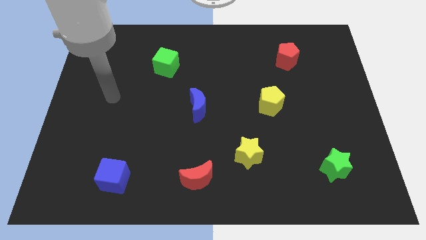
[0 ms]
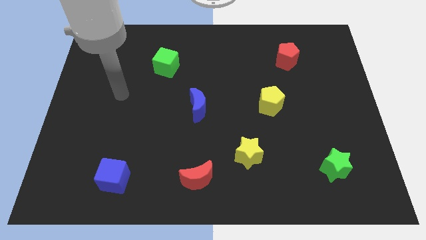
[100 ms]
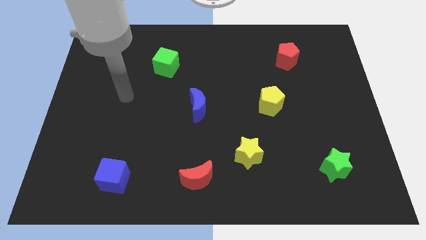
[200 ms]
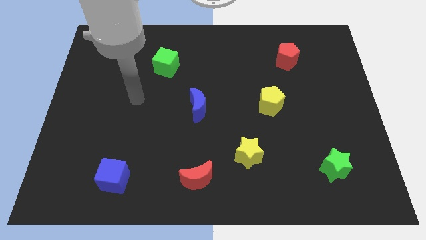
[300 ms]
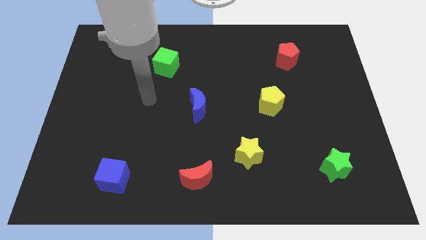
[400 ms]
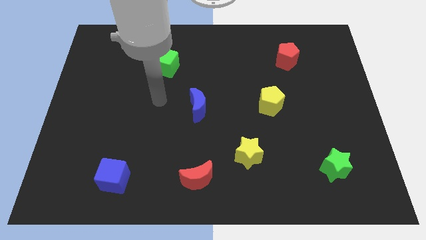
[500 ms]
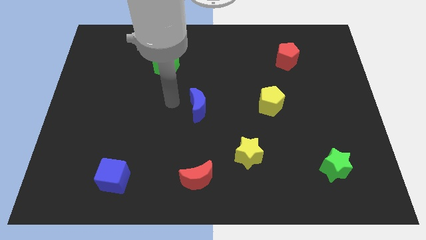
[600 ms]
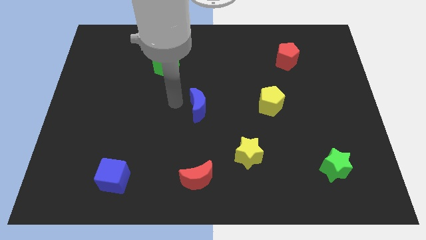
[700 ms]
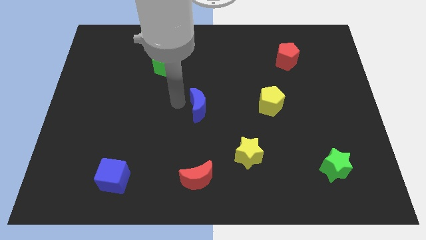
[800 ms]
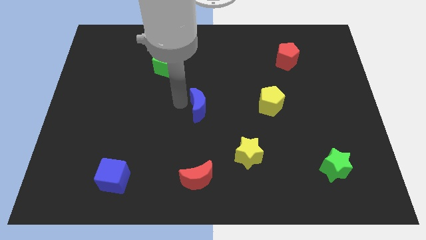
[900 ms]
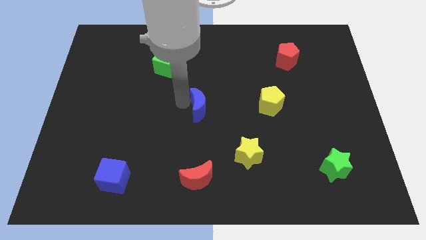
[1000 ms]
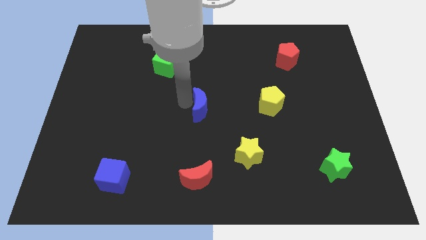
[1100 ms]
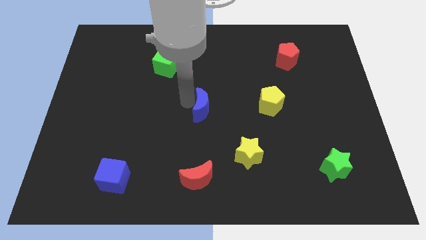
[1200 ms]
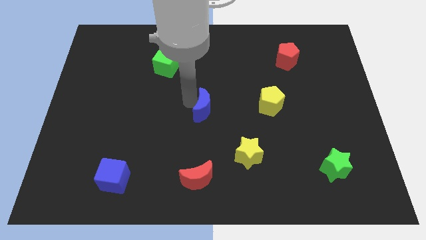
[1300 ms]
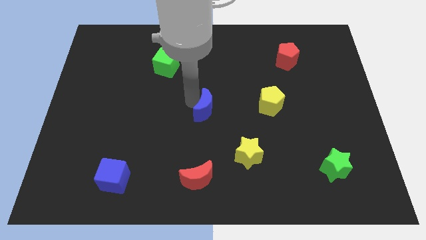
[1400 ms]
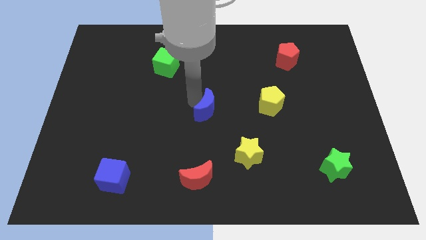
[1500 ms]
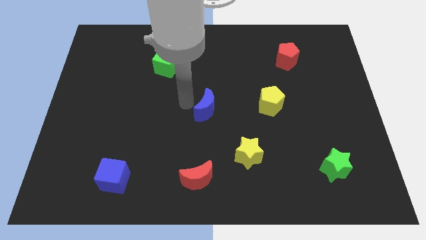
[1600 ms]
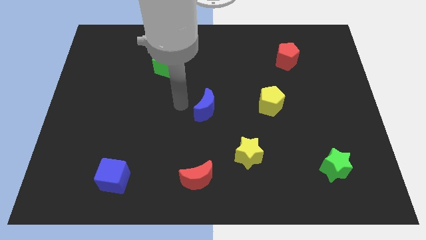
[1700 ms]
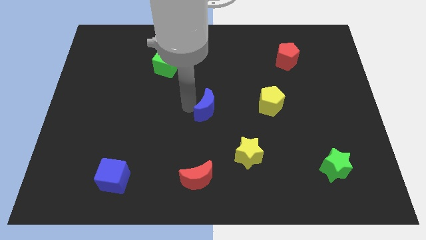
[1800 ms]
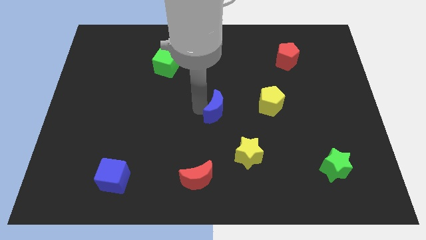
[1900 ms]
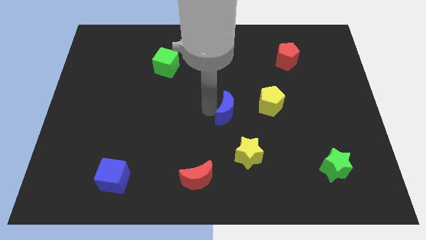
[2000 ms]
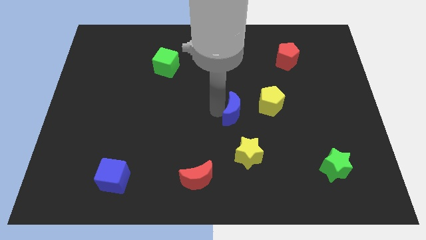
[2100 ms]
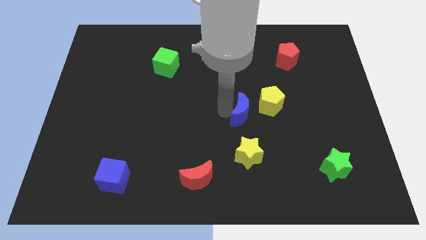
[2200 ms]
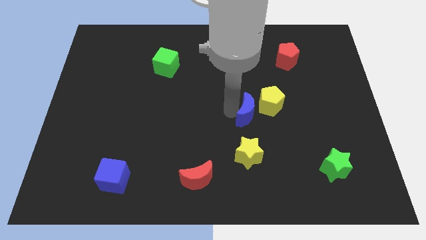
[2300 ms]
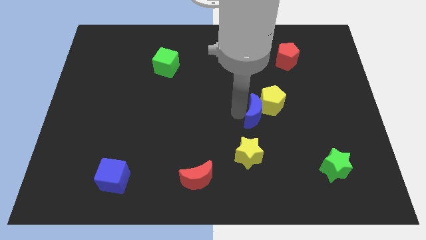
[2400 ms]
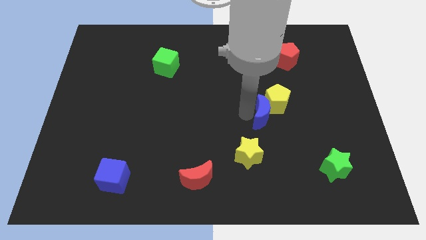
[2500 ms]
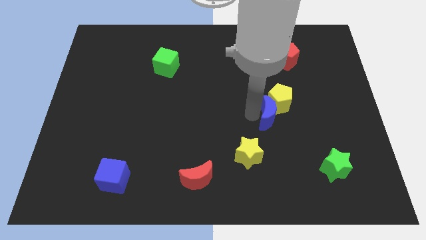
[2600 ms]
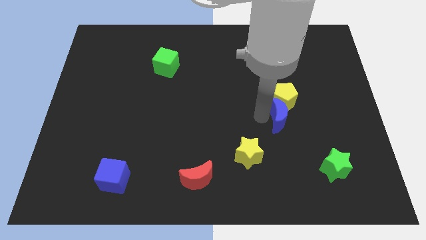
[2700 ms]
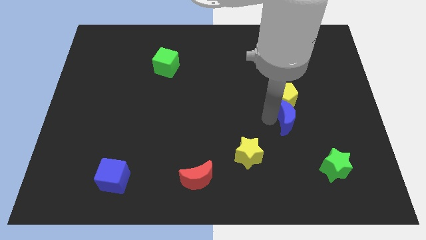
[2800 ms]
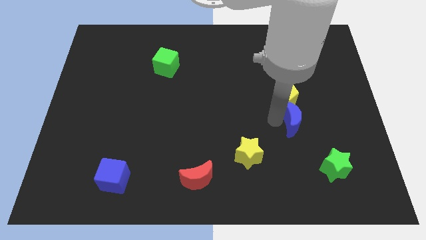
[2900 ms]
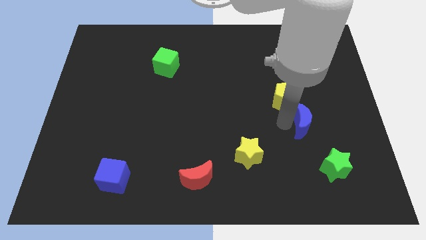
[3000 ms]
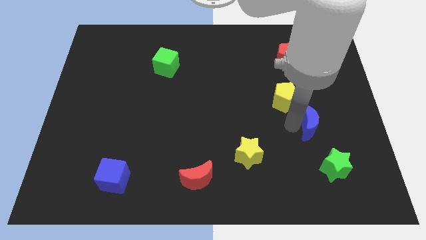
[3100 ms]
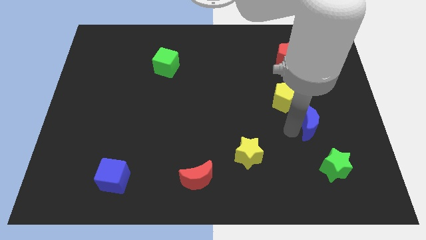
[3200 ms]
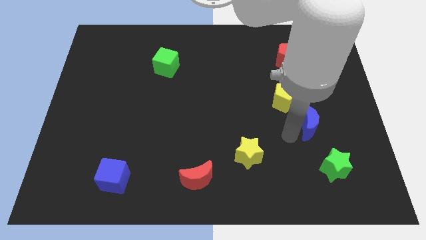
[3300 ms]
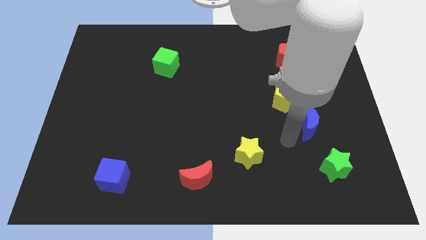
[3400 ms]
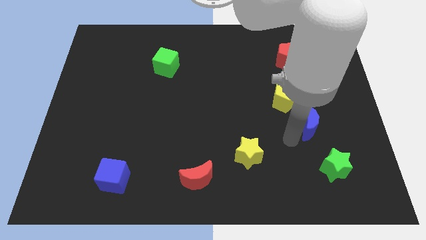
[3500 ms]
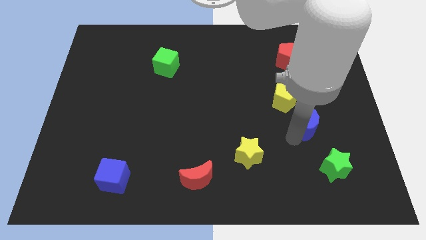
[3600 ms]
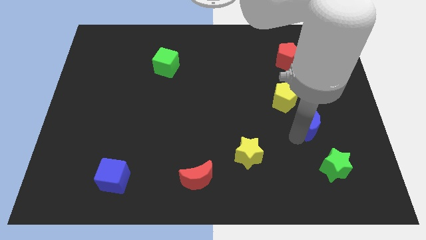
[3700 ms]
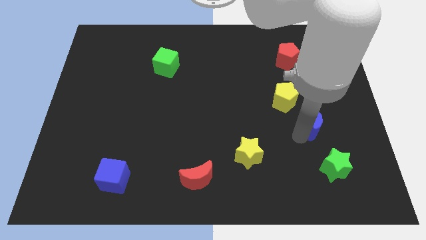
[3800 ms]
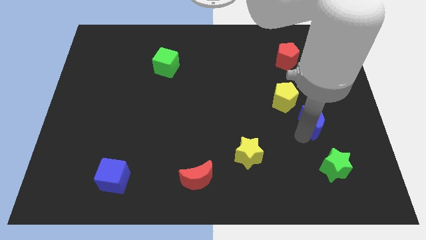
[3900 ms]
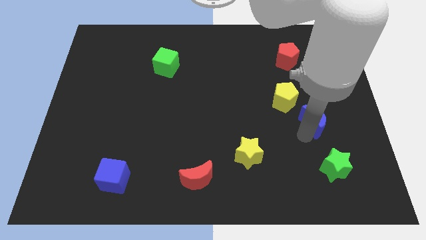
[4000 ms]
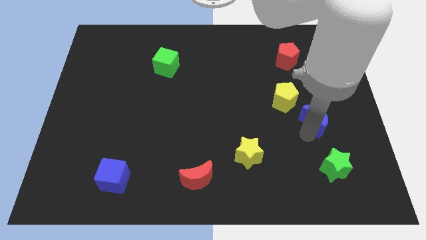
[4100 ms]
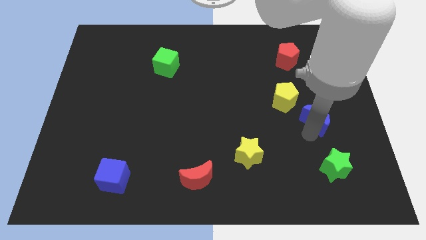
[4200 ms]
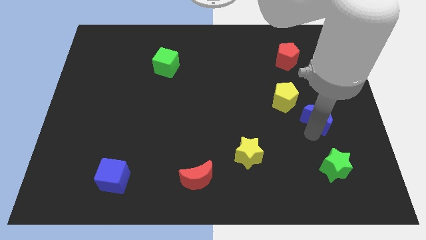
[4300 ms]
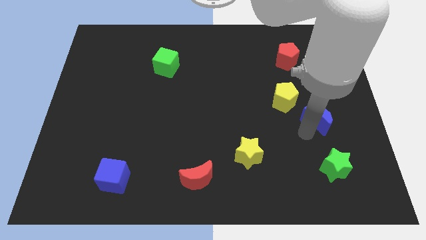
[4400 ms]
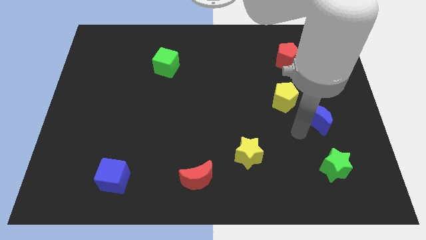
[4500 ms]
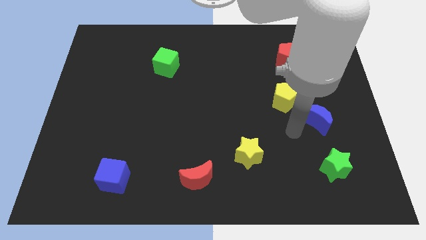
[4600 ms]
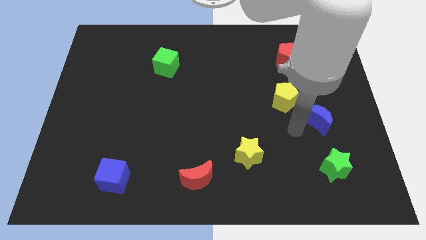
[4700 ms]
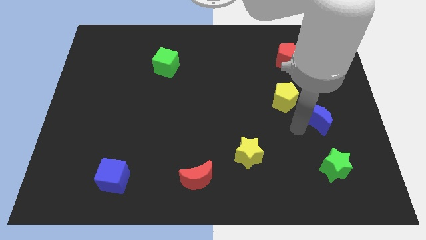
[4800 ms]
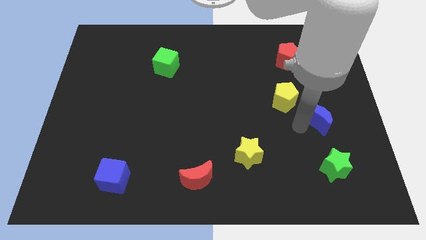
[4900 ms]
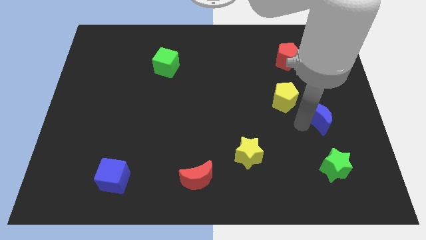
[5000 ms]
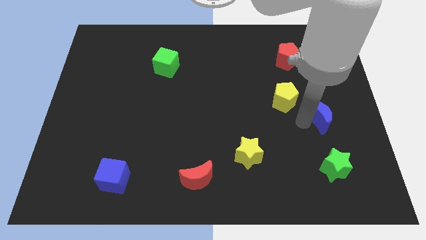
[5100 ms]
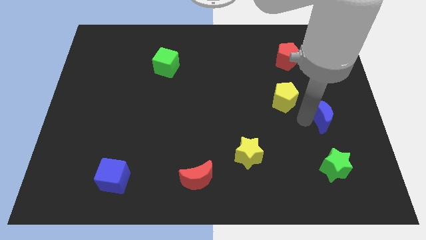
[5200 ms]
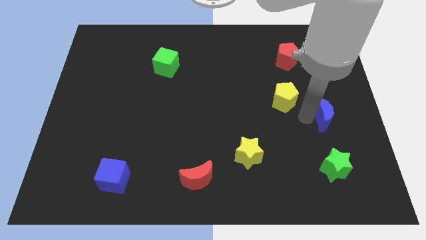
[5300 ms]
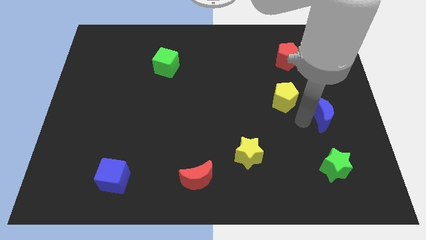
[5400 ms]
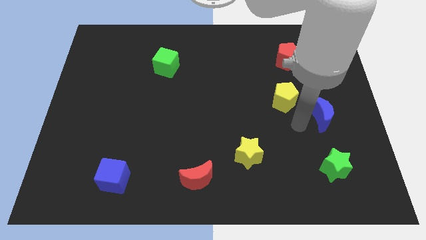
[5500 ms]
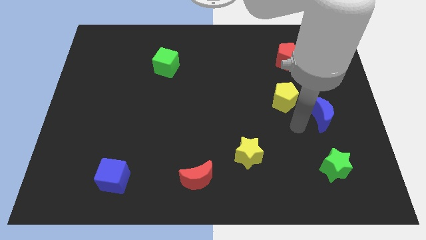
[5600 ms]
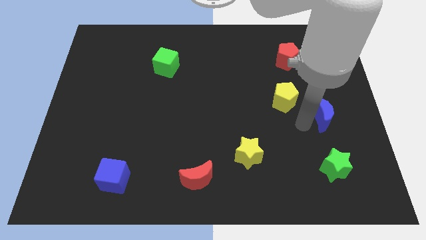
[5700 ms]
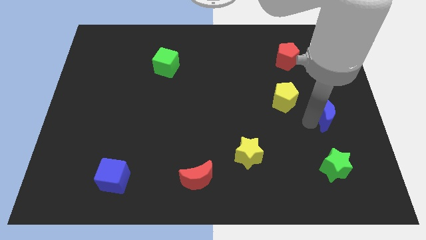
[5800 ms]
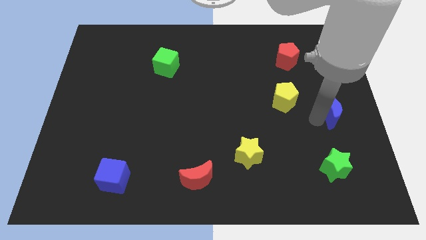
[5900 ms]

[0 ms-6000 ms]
slide the blue moon to the right side
